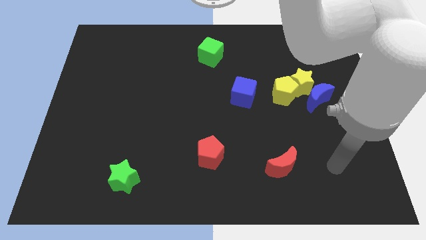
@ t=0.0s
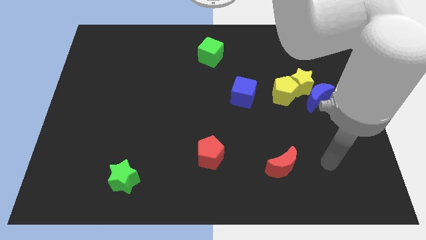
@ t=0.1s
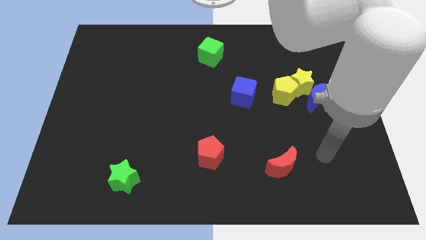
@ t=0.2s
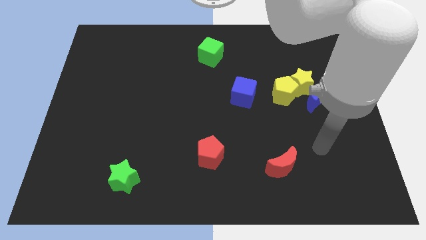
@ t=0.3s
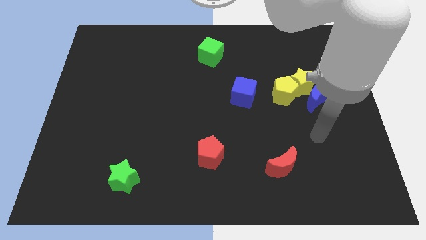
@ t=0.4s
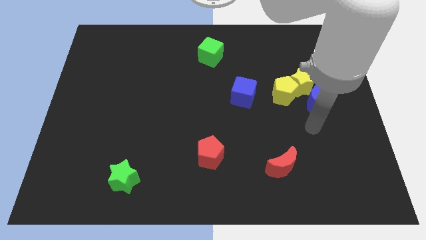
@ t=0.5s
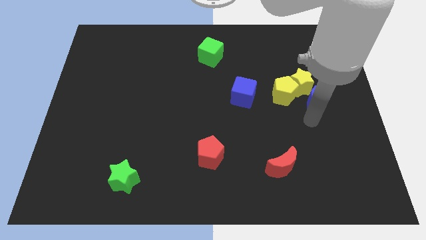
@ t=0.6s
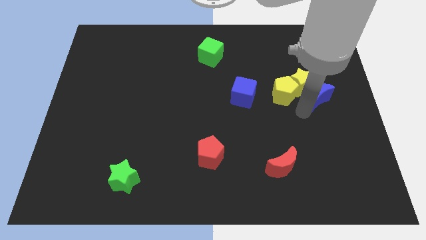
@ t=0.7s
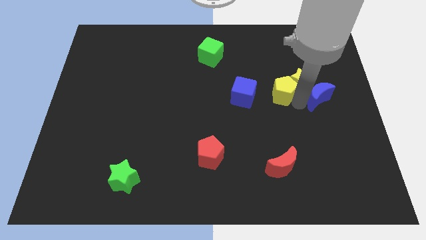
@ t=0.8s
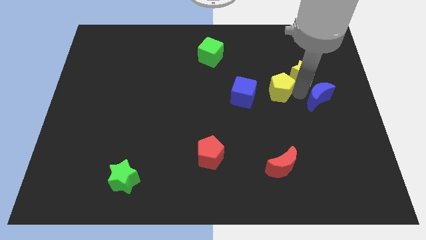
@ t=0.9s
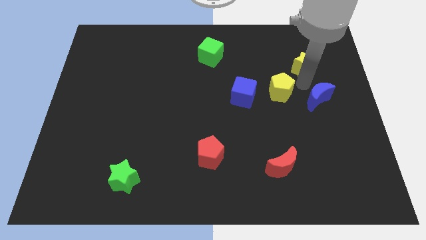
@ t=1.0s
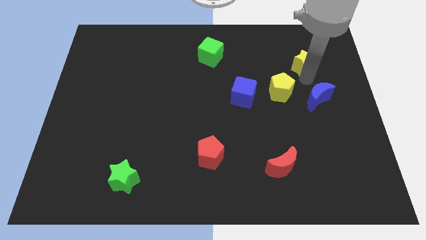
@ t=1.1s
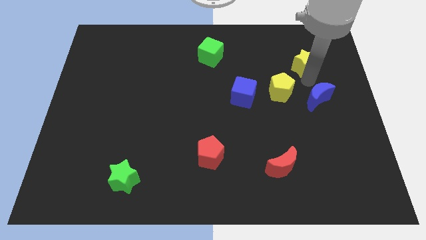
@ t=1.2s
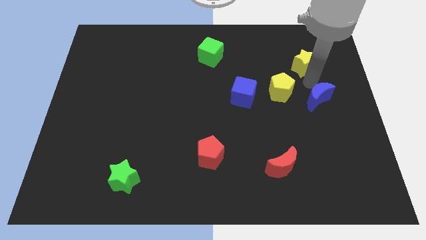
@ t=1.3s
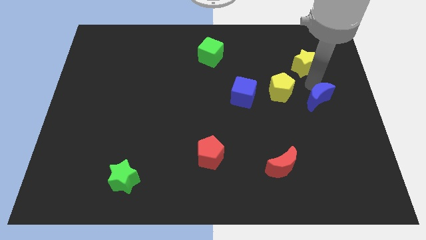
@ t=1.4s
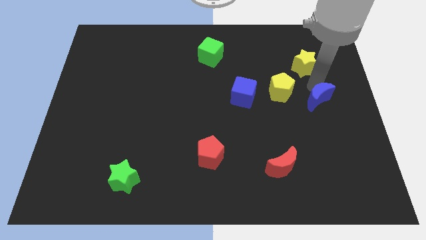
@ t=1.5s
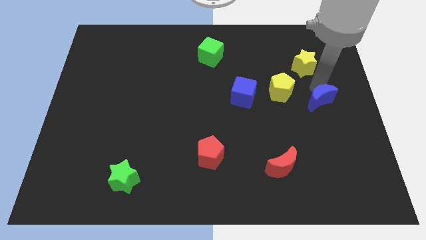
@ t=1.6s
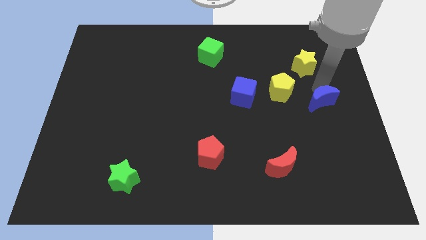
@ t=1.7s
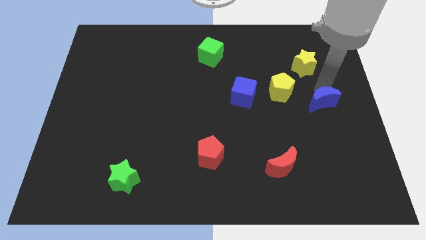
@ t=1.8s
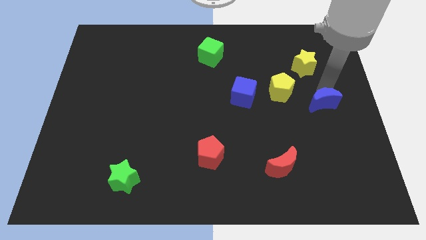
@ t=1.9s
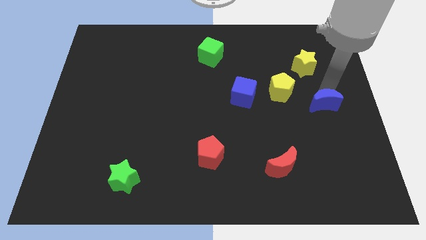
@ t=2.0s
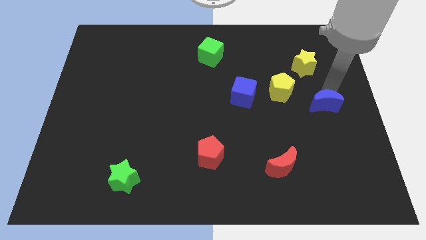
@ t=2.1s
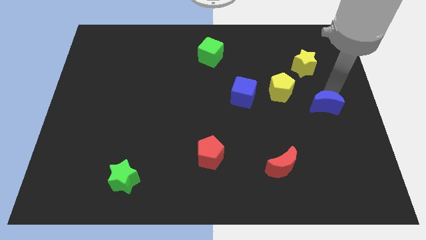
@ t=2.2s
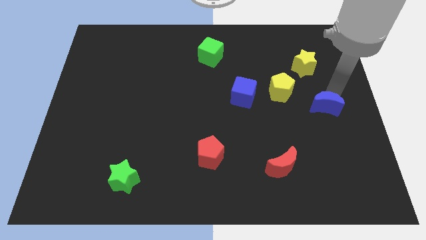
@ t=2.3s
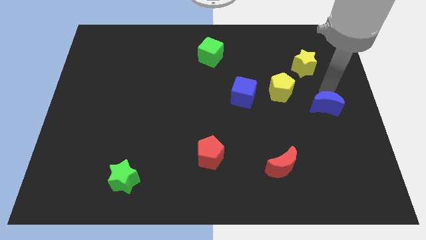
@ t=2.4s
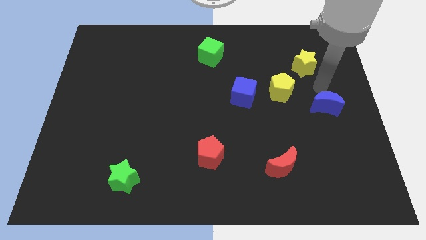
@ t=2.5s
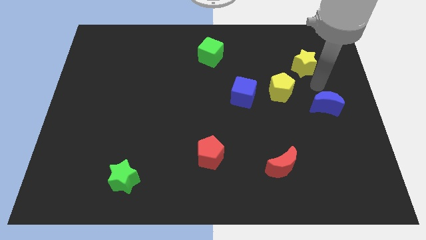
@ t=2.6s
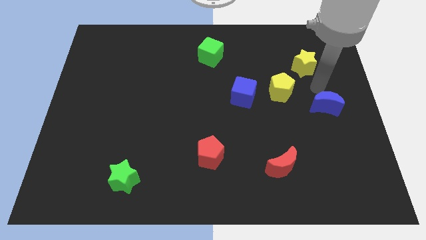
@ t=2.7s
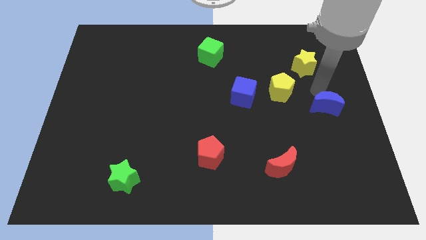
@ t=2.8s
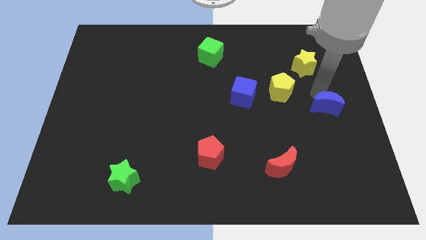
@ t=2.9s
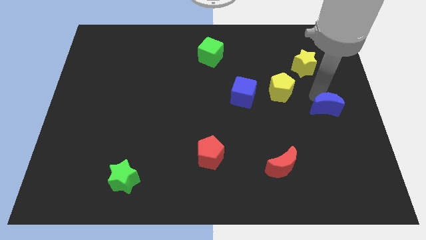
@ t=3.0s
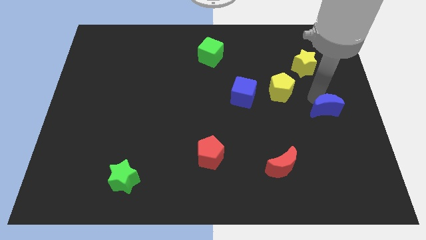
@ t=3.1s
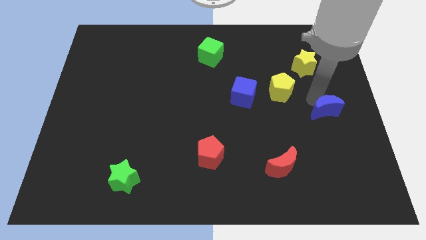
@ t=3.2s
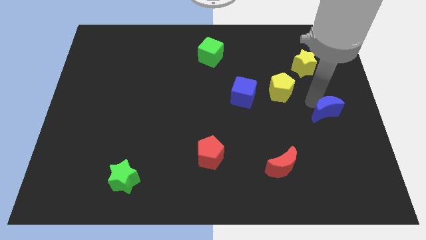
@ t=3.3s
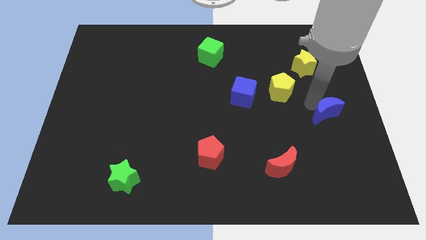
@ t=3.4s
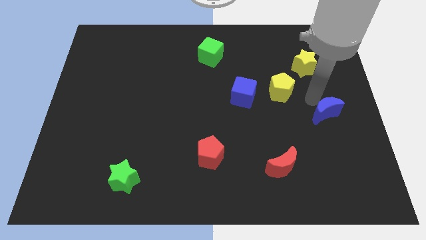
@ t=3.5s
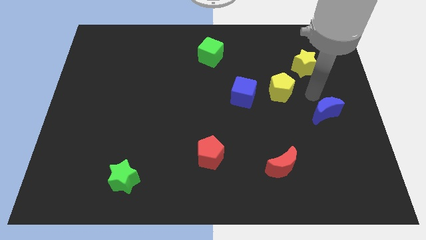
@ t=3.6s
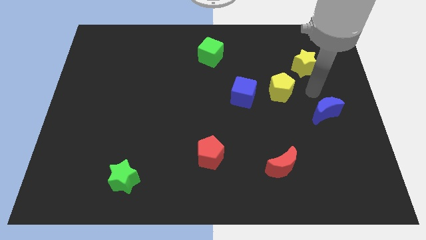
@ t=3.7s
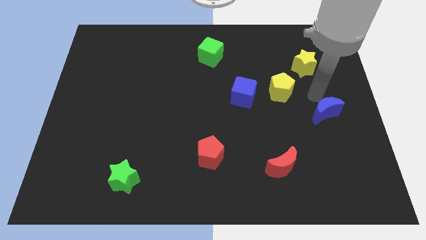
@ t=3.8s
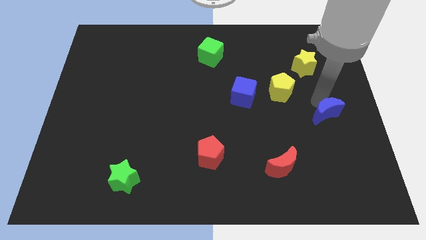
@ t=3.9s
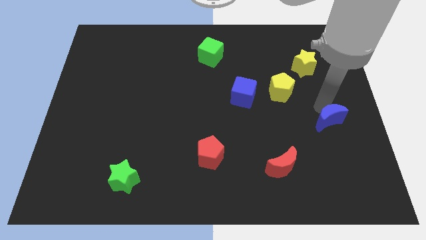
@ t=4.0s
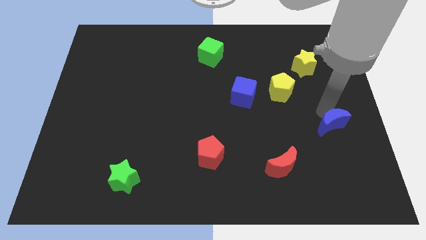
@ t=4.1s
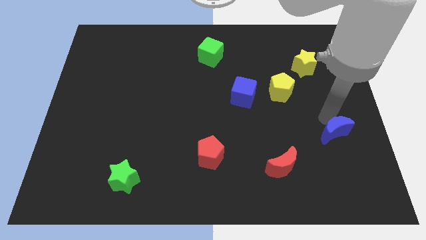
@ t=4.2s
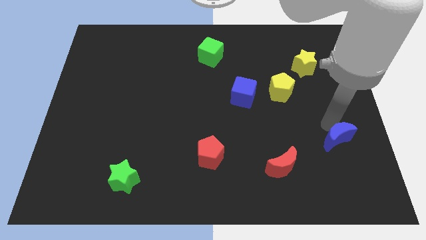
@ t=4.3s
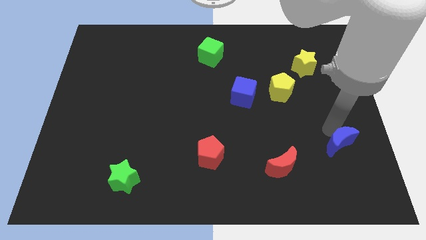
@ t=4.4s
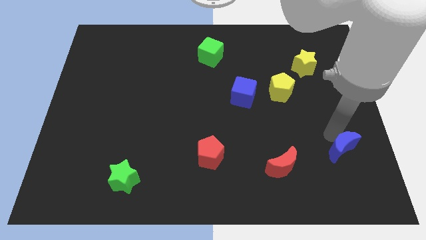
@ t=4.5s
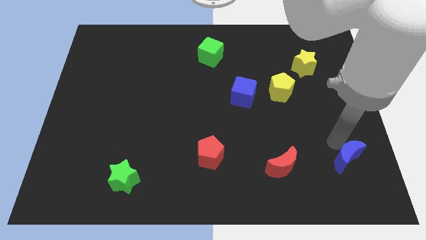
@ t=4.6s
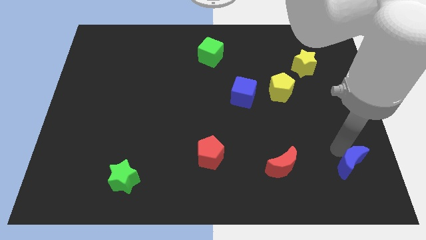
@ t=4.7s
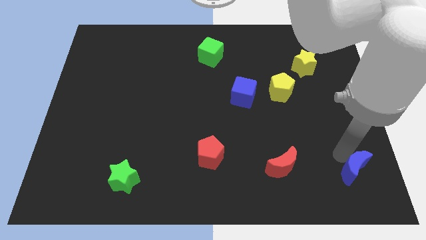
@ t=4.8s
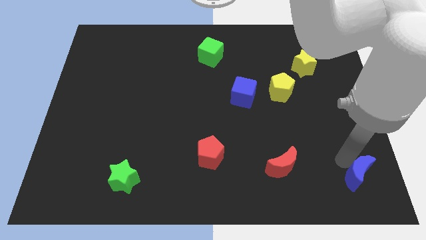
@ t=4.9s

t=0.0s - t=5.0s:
put the blue moon to the bottom right corner

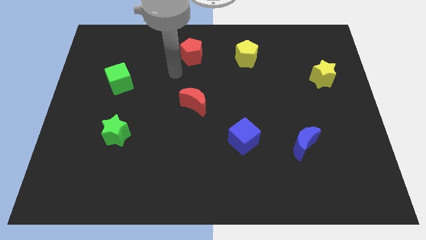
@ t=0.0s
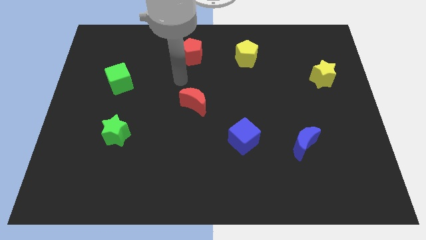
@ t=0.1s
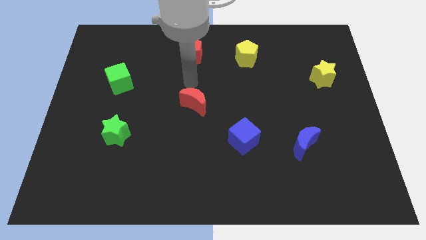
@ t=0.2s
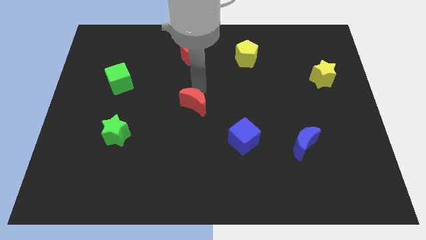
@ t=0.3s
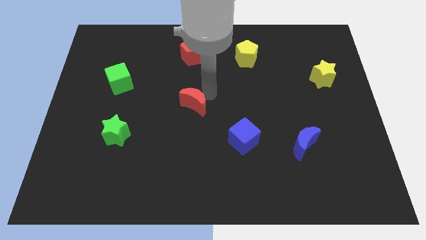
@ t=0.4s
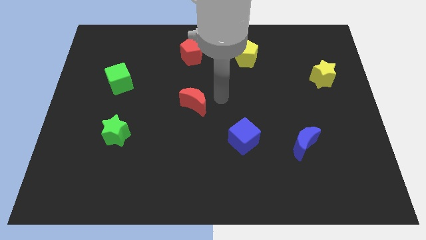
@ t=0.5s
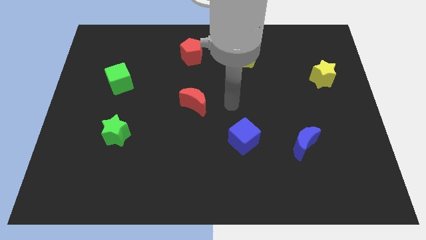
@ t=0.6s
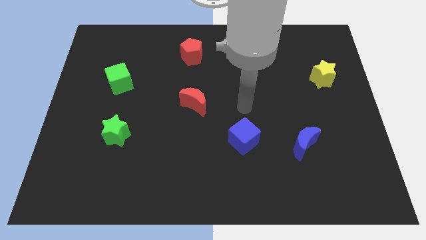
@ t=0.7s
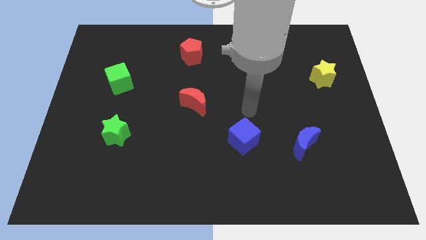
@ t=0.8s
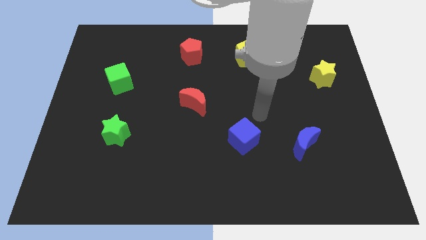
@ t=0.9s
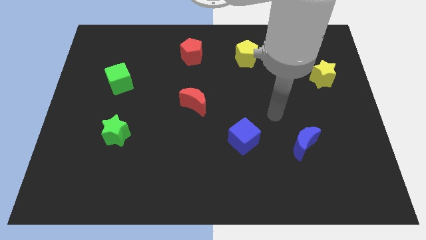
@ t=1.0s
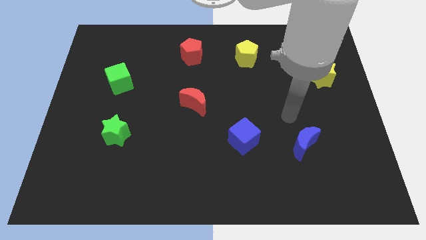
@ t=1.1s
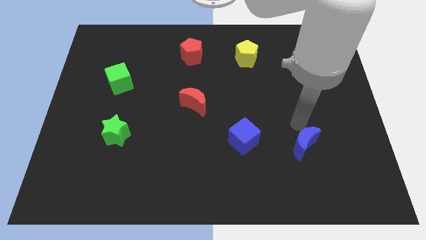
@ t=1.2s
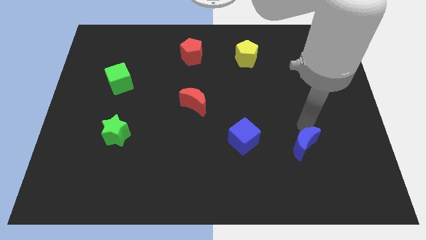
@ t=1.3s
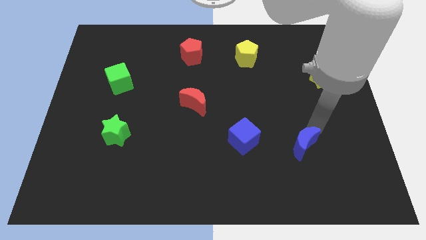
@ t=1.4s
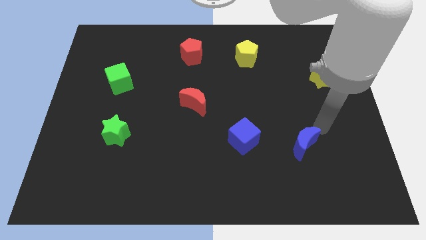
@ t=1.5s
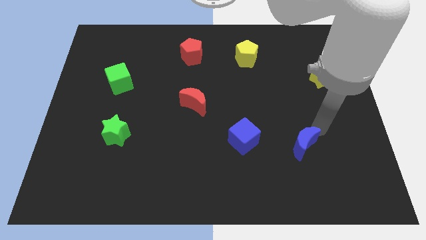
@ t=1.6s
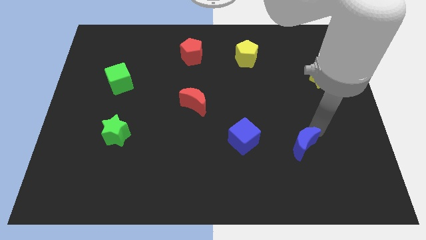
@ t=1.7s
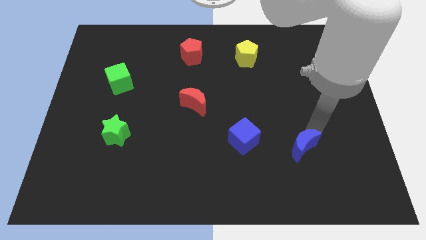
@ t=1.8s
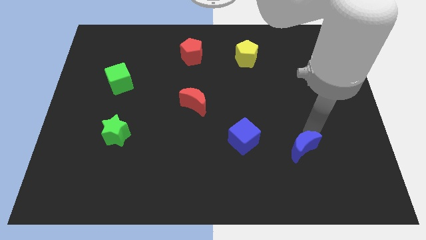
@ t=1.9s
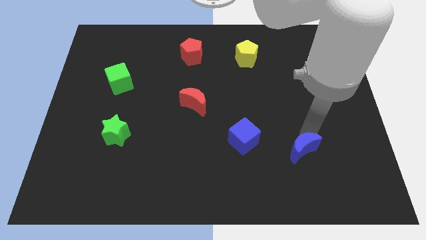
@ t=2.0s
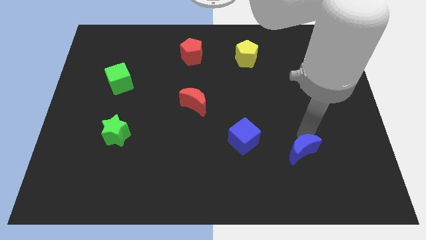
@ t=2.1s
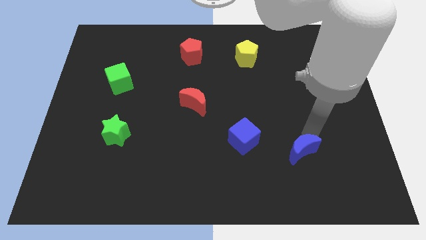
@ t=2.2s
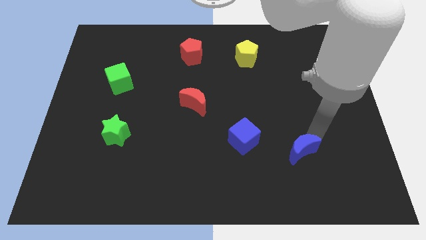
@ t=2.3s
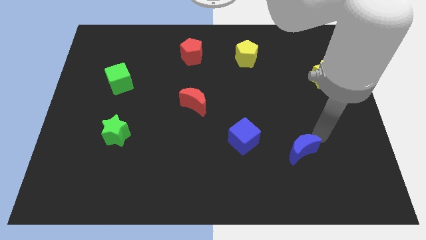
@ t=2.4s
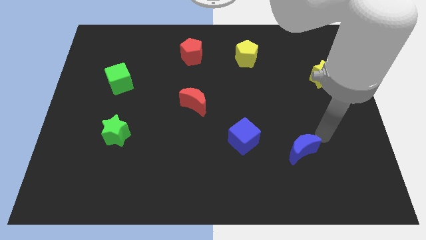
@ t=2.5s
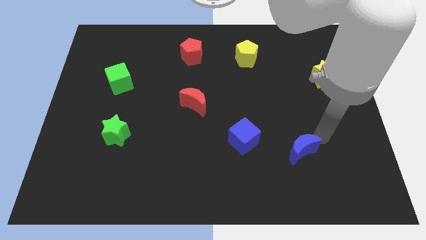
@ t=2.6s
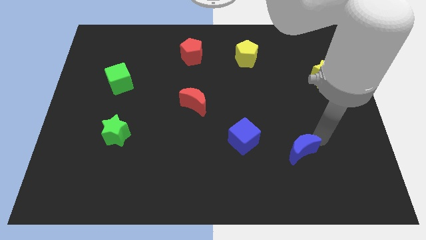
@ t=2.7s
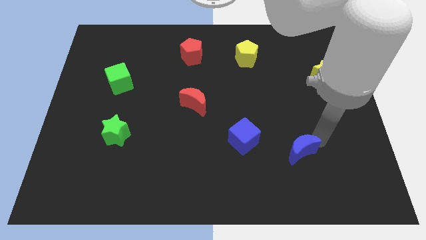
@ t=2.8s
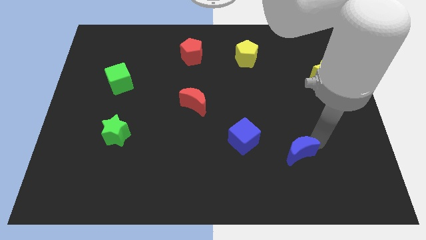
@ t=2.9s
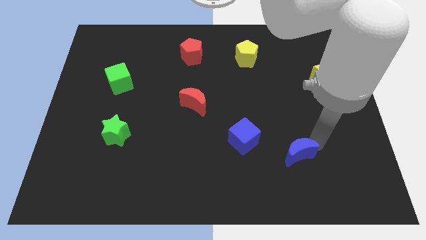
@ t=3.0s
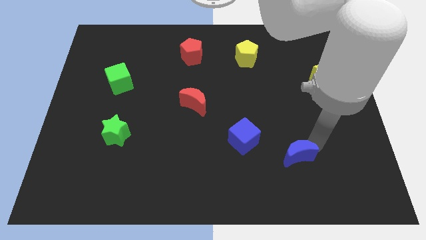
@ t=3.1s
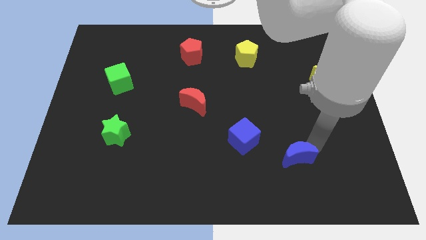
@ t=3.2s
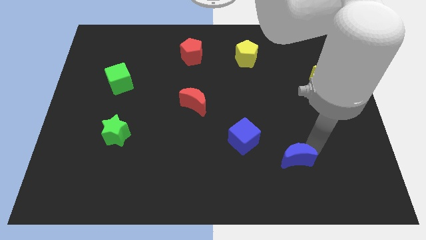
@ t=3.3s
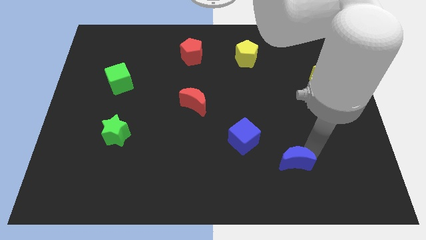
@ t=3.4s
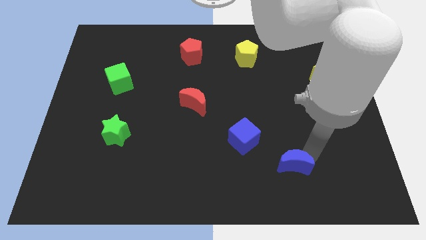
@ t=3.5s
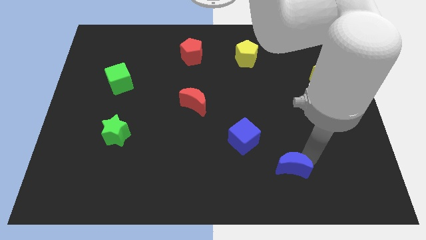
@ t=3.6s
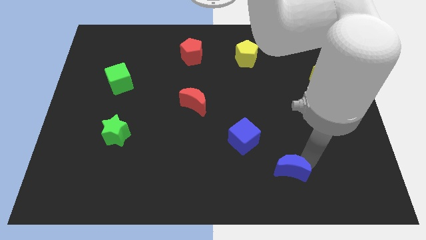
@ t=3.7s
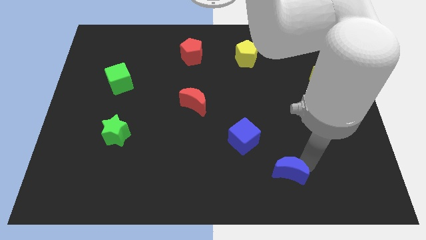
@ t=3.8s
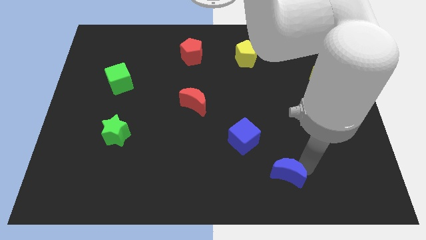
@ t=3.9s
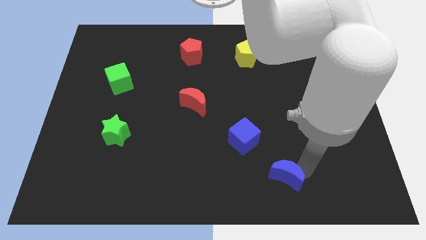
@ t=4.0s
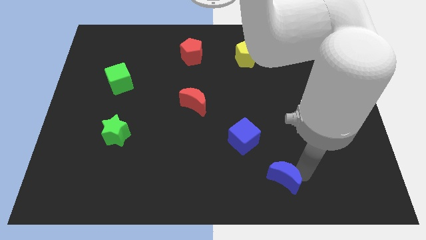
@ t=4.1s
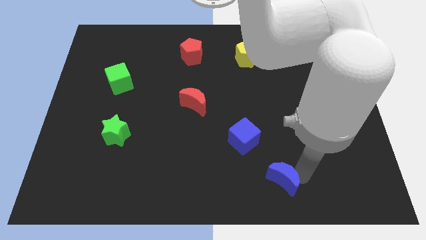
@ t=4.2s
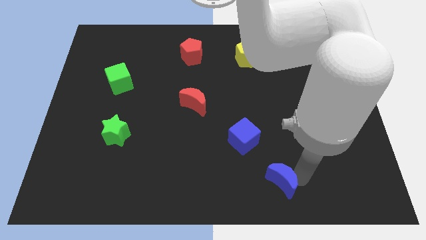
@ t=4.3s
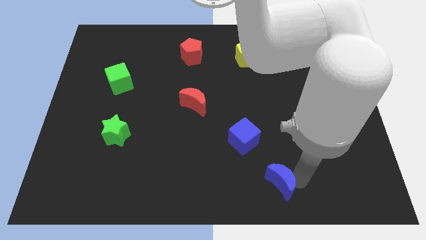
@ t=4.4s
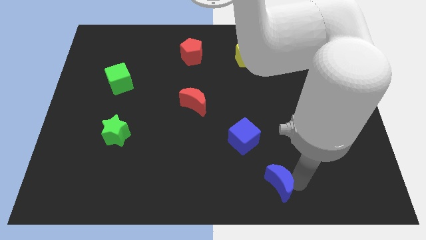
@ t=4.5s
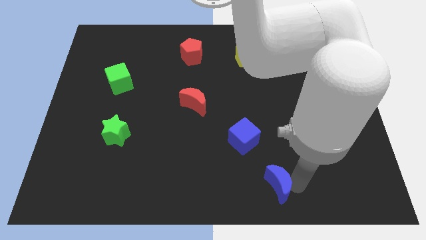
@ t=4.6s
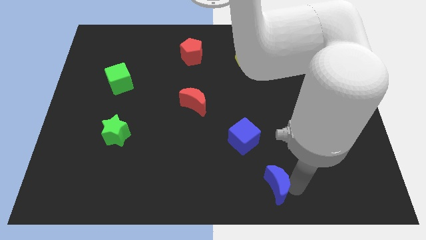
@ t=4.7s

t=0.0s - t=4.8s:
move the blue moon to the bottom
